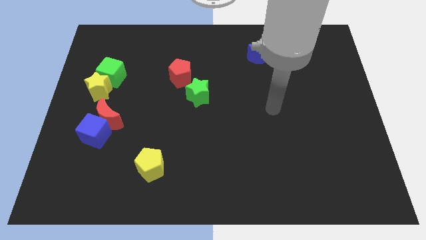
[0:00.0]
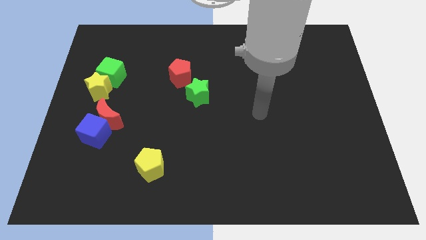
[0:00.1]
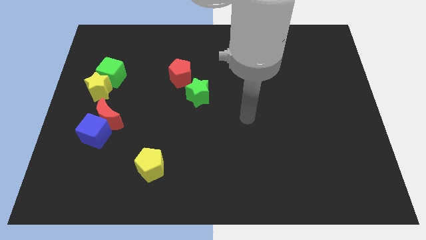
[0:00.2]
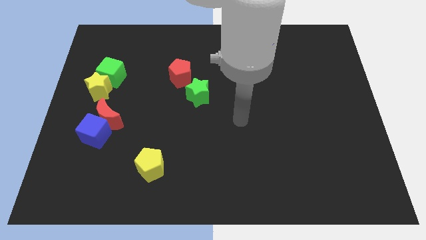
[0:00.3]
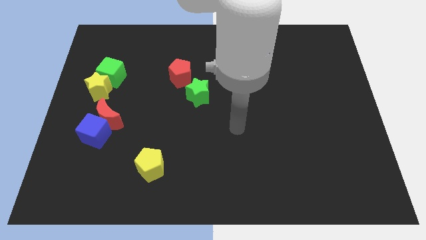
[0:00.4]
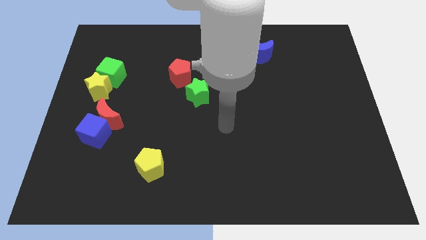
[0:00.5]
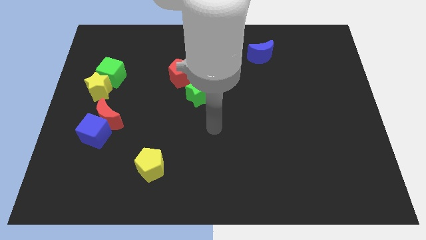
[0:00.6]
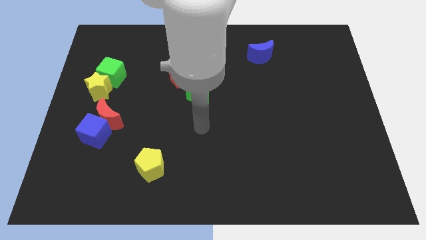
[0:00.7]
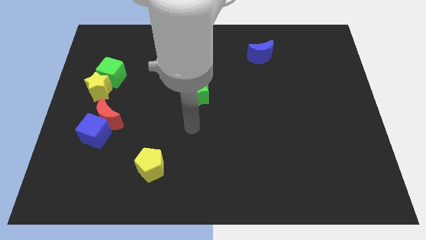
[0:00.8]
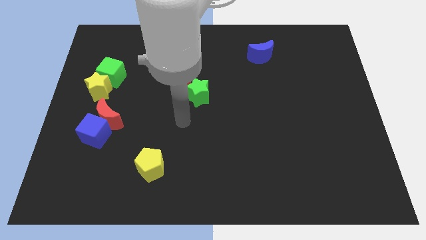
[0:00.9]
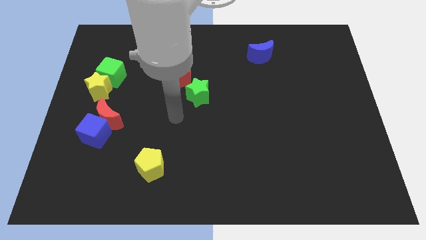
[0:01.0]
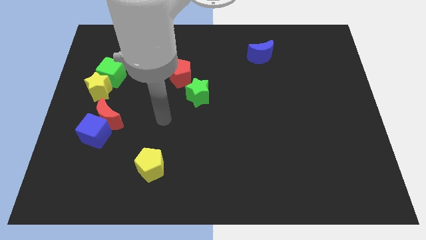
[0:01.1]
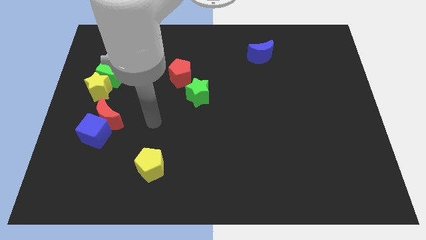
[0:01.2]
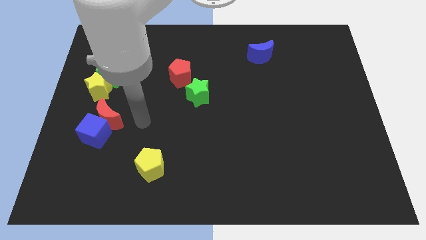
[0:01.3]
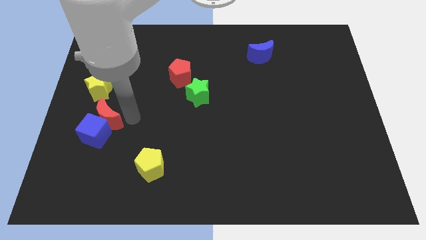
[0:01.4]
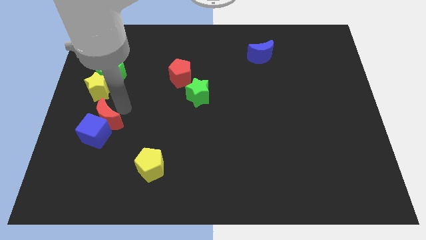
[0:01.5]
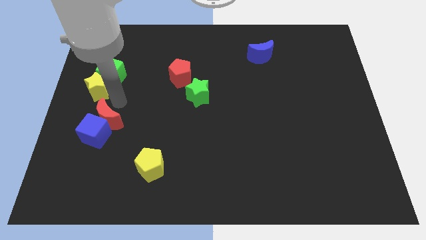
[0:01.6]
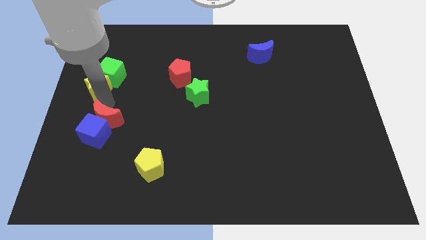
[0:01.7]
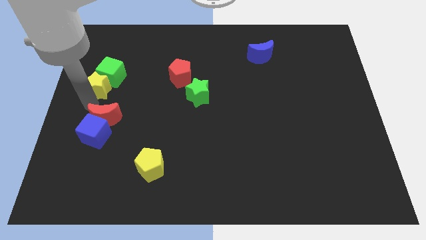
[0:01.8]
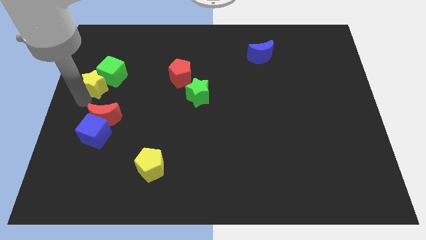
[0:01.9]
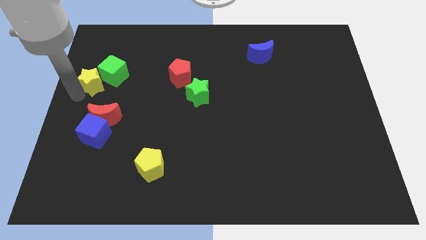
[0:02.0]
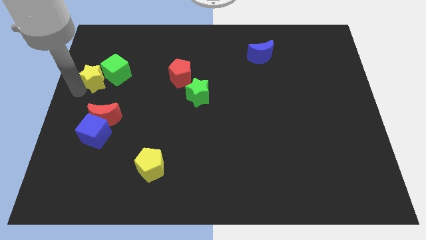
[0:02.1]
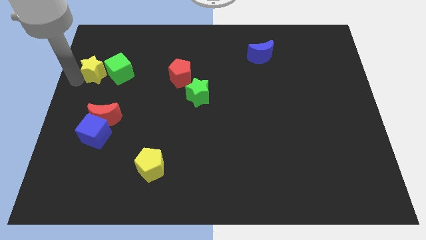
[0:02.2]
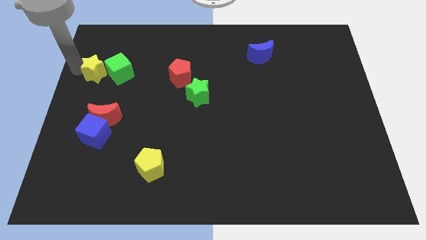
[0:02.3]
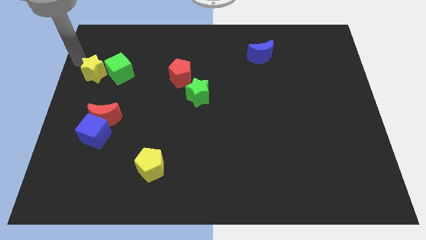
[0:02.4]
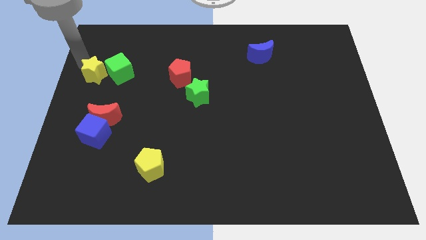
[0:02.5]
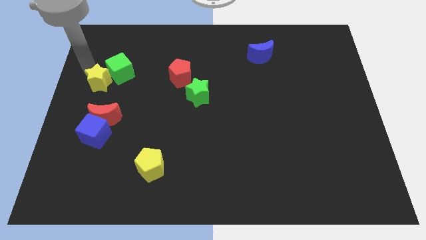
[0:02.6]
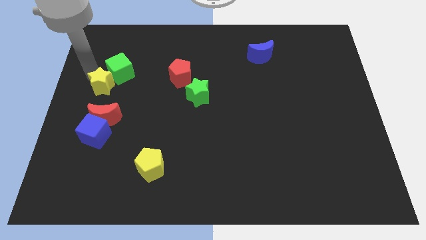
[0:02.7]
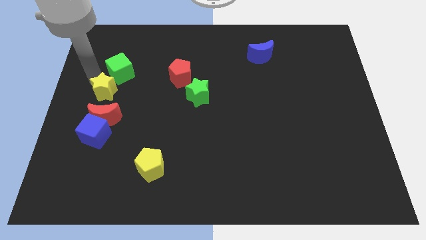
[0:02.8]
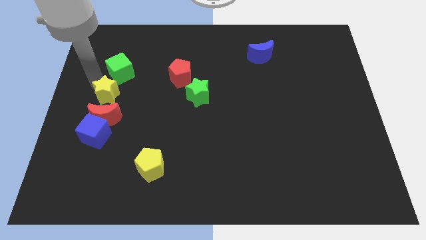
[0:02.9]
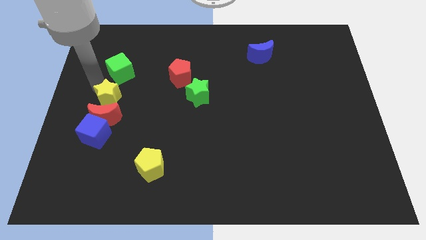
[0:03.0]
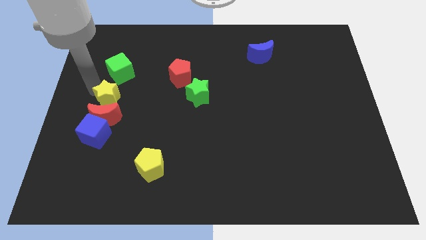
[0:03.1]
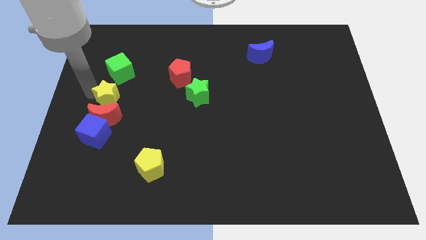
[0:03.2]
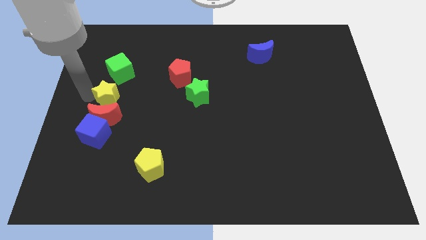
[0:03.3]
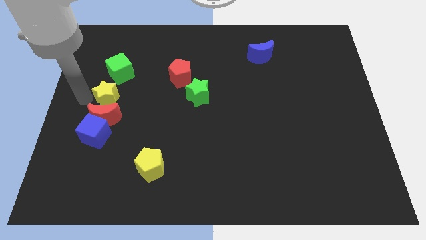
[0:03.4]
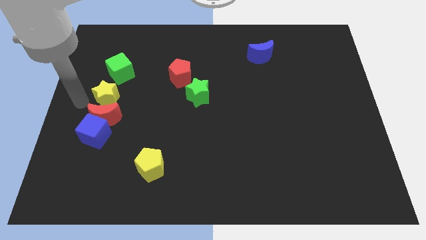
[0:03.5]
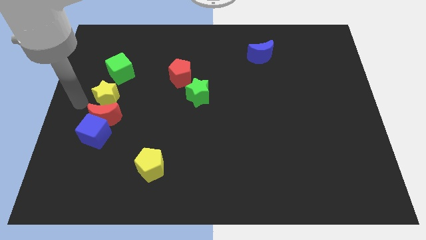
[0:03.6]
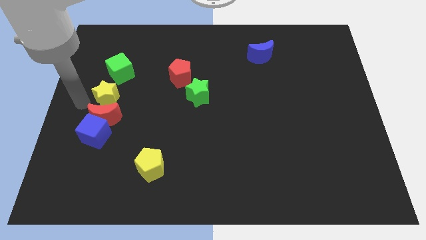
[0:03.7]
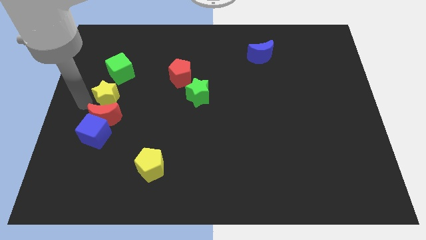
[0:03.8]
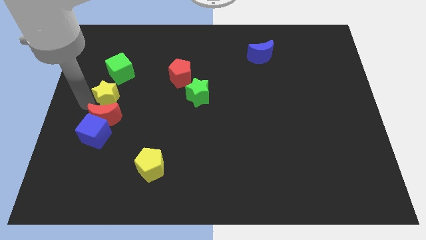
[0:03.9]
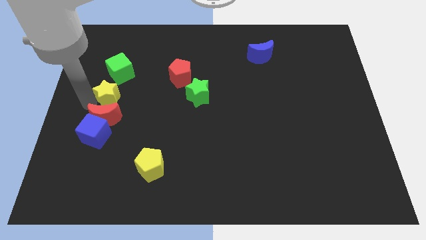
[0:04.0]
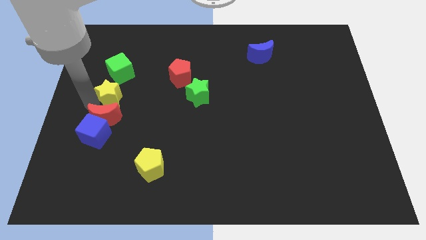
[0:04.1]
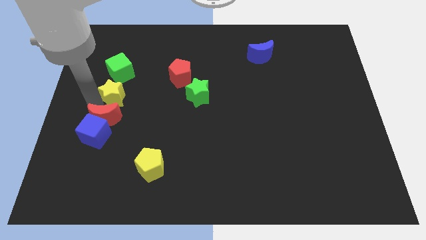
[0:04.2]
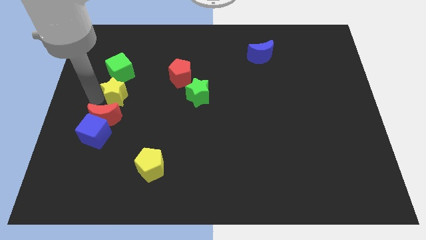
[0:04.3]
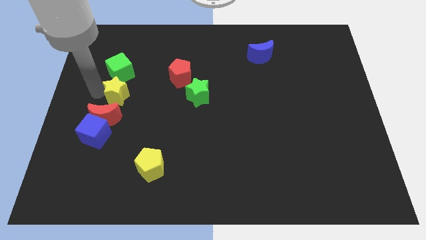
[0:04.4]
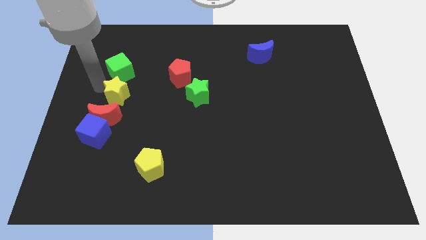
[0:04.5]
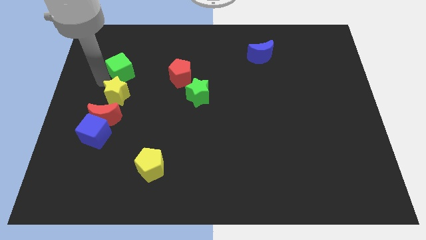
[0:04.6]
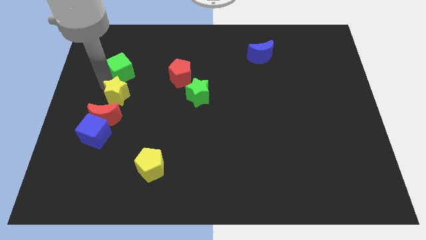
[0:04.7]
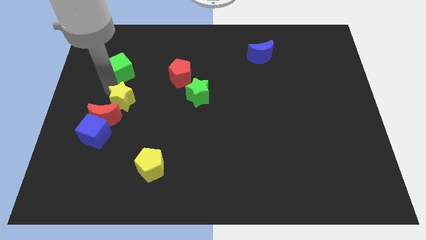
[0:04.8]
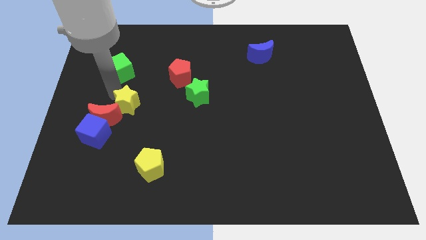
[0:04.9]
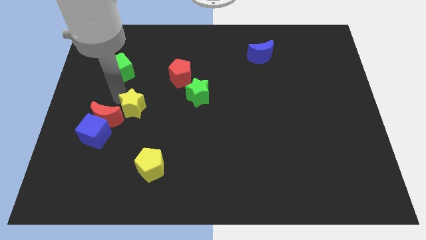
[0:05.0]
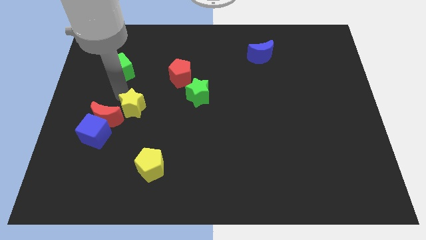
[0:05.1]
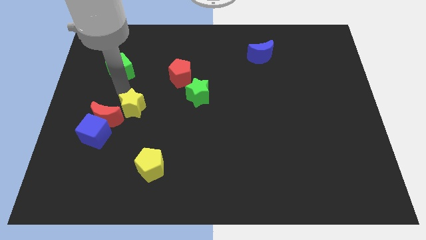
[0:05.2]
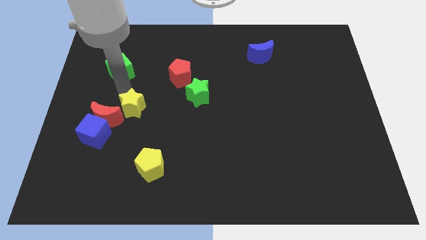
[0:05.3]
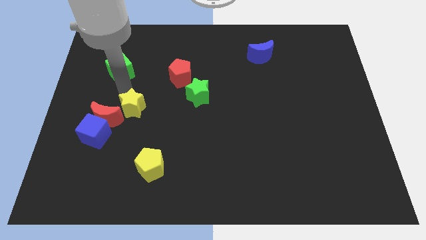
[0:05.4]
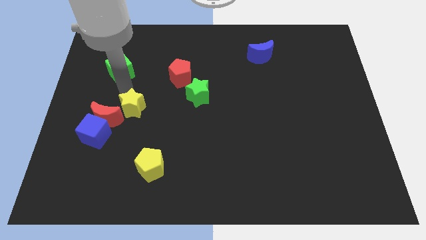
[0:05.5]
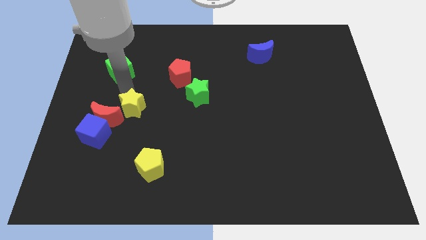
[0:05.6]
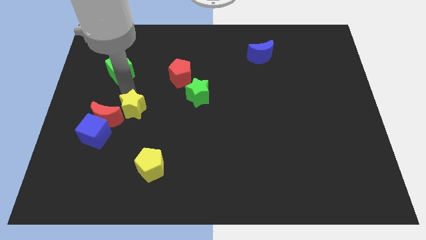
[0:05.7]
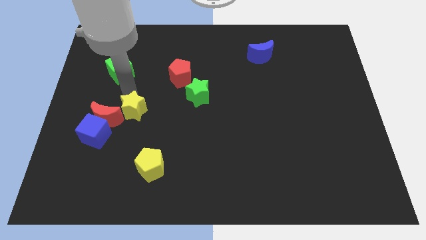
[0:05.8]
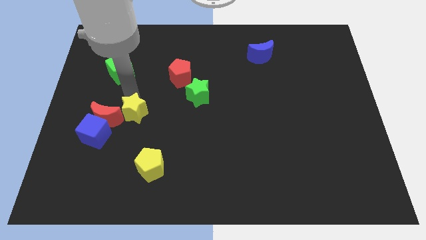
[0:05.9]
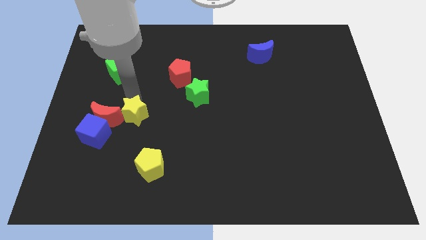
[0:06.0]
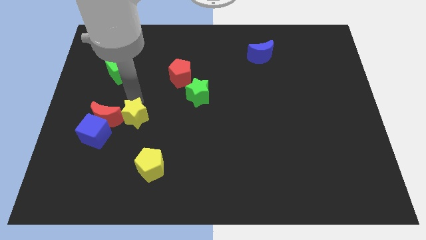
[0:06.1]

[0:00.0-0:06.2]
slide the yellow star to the right of the blue cube
